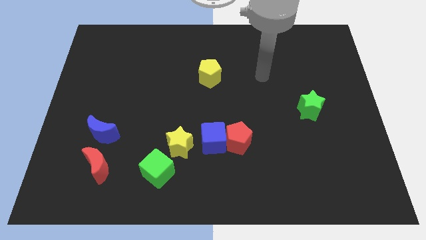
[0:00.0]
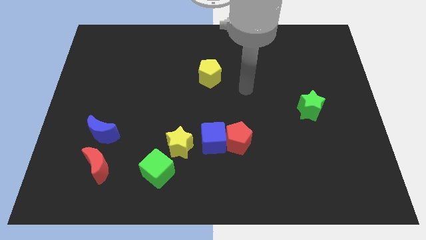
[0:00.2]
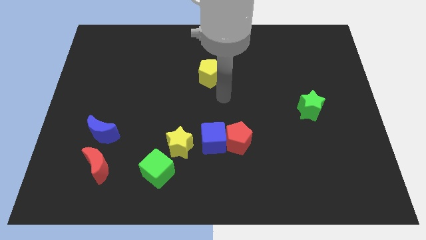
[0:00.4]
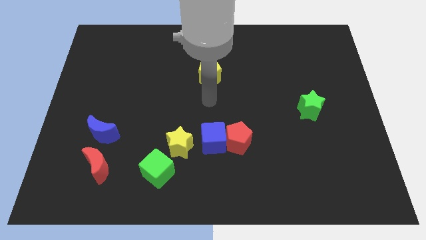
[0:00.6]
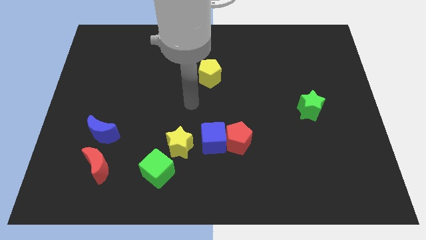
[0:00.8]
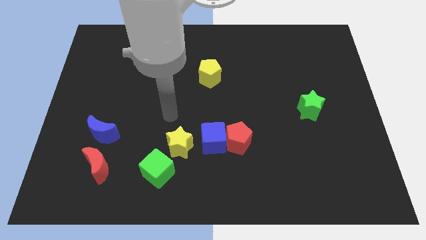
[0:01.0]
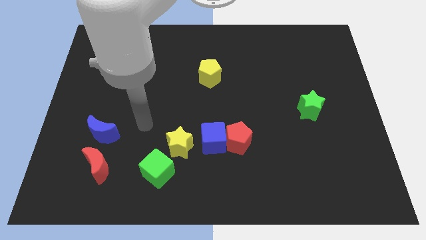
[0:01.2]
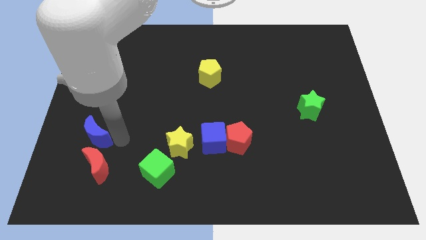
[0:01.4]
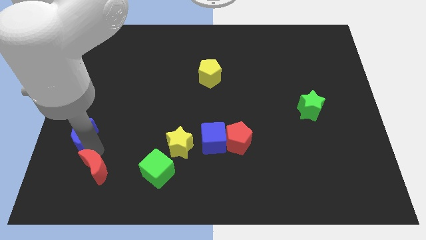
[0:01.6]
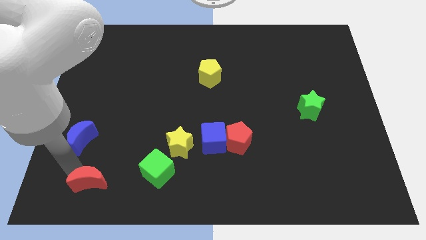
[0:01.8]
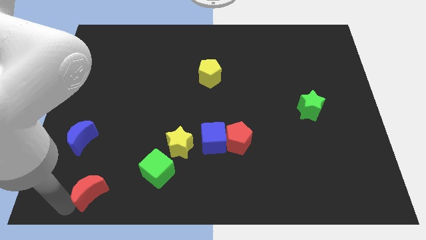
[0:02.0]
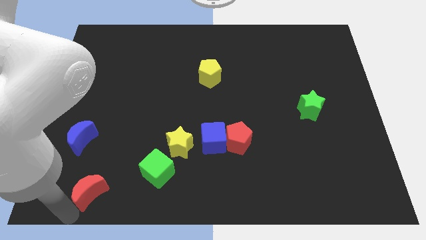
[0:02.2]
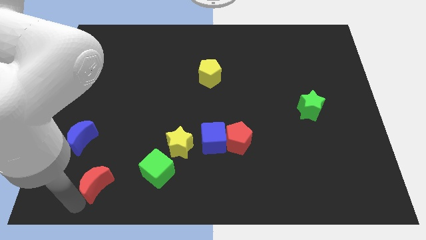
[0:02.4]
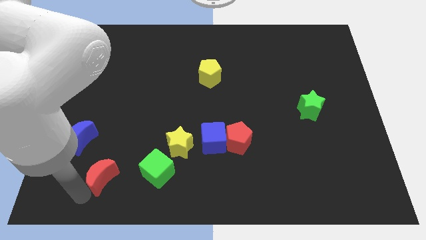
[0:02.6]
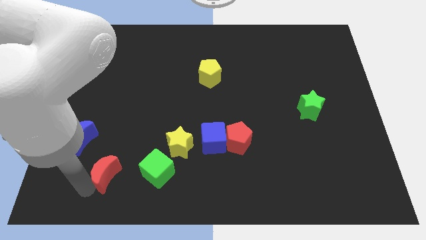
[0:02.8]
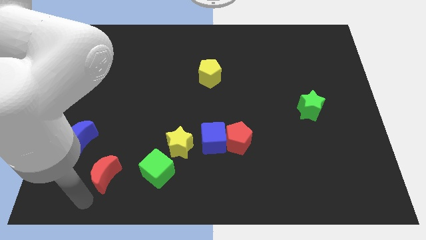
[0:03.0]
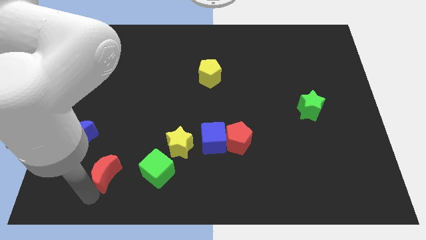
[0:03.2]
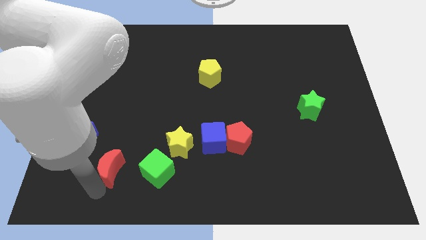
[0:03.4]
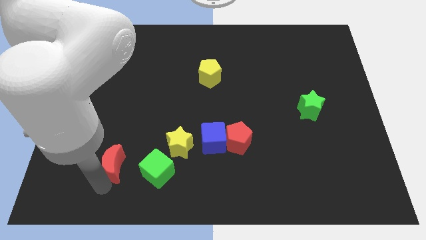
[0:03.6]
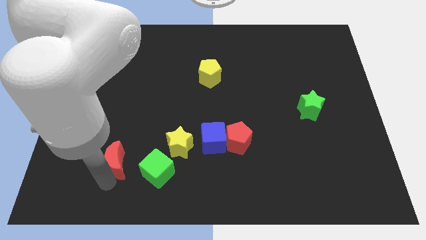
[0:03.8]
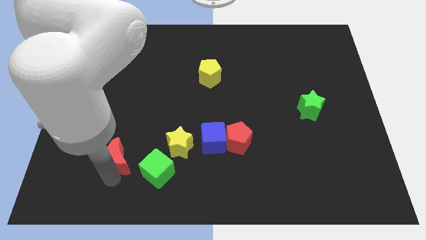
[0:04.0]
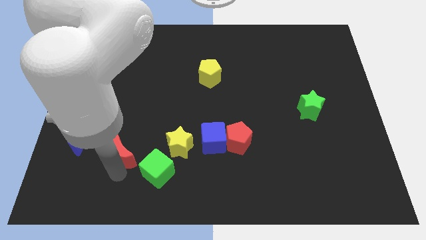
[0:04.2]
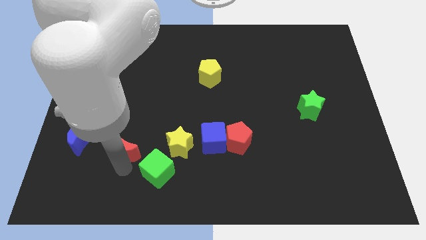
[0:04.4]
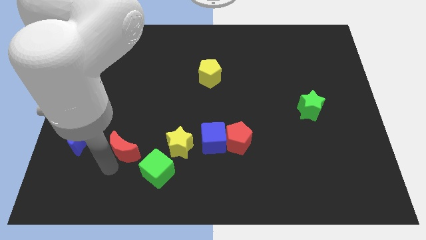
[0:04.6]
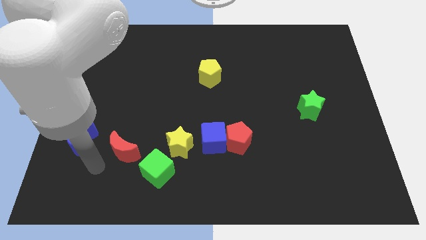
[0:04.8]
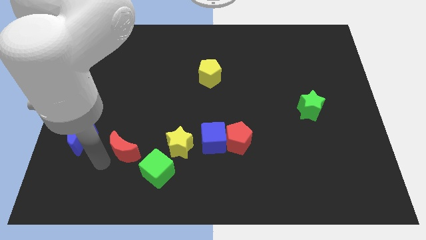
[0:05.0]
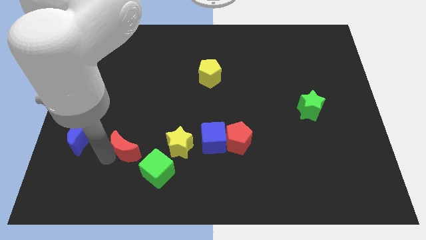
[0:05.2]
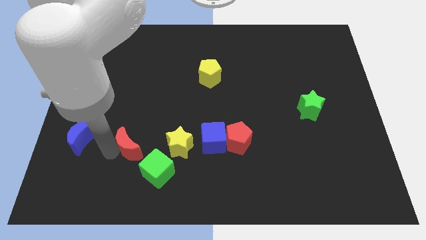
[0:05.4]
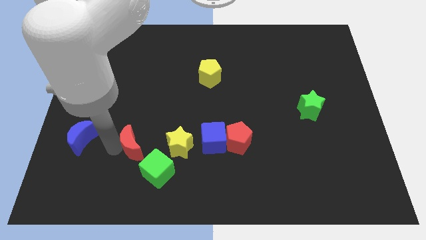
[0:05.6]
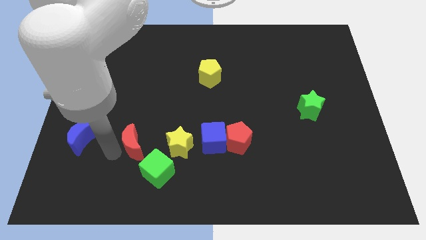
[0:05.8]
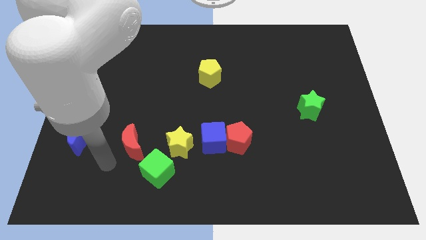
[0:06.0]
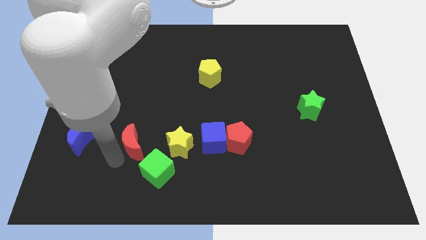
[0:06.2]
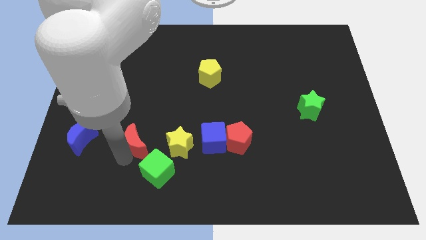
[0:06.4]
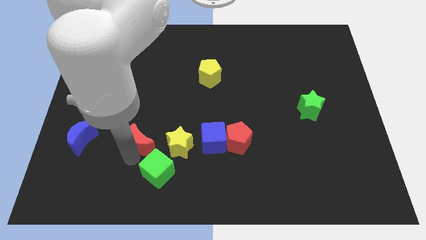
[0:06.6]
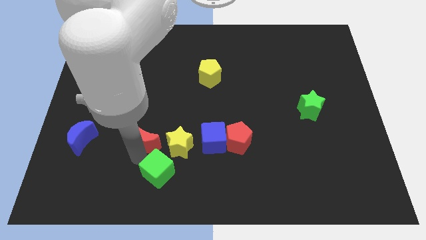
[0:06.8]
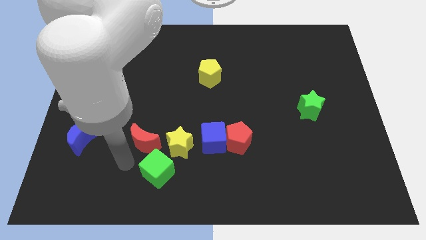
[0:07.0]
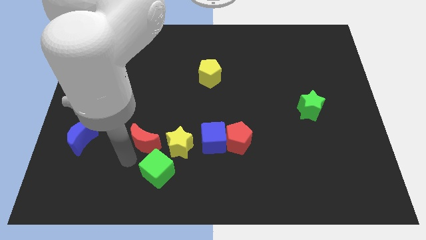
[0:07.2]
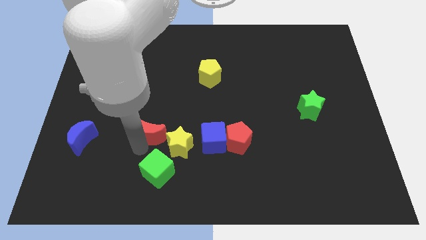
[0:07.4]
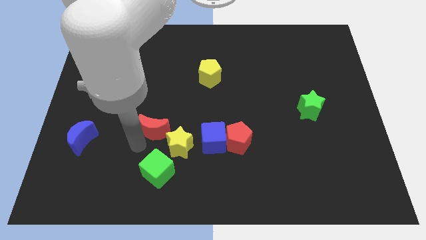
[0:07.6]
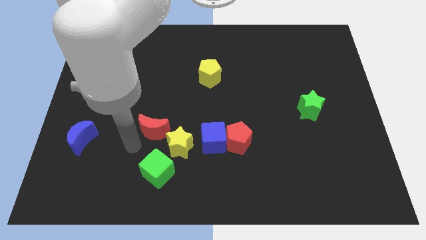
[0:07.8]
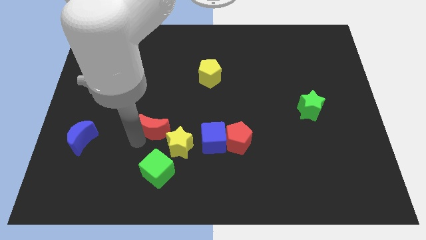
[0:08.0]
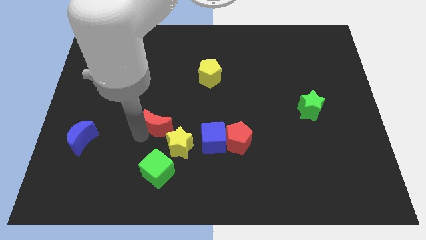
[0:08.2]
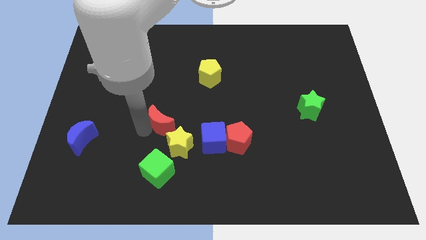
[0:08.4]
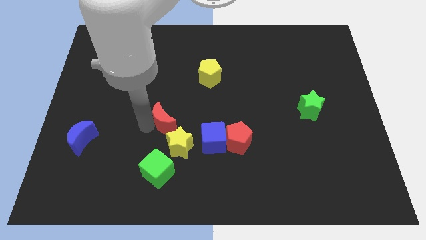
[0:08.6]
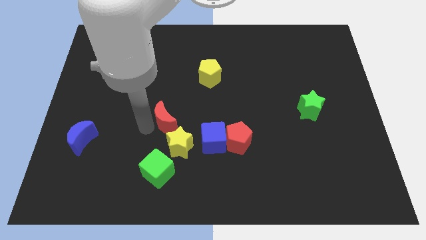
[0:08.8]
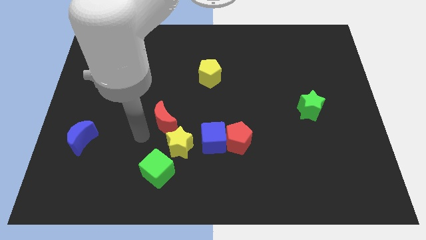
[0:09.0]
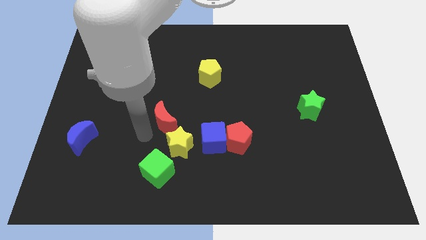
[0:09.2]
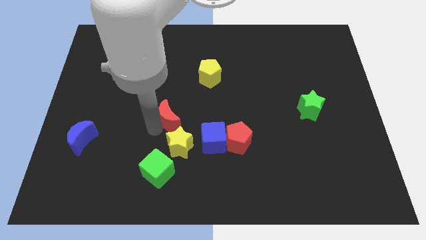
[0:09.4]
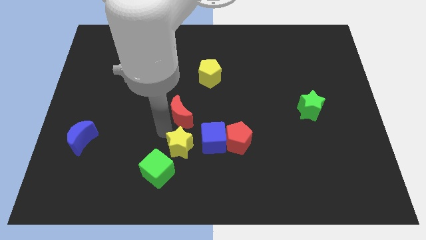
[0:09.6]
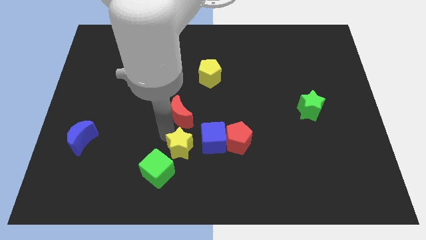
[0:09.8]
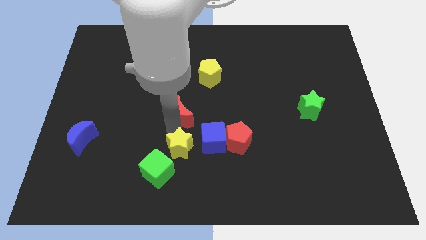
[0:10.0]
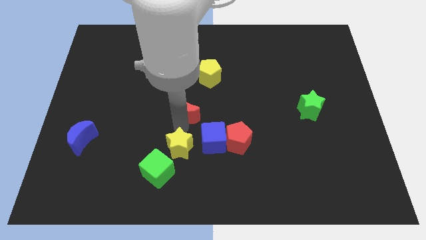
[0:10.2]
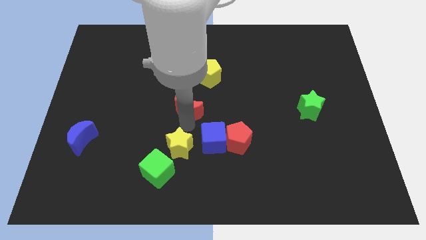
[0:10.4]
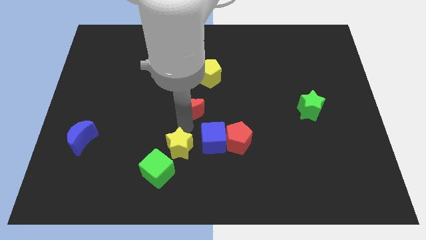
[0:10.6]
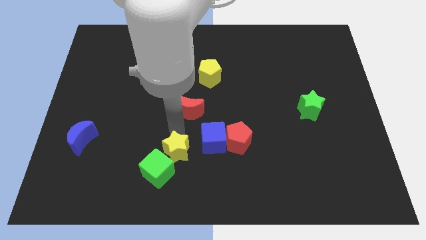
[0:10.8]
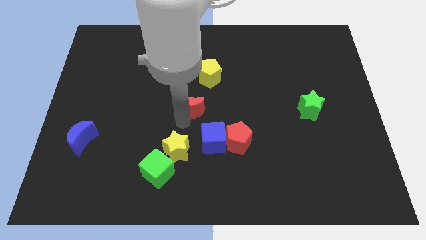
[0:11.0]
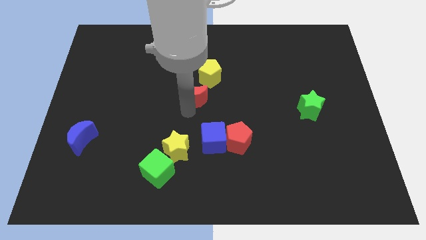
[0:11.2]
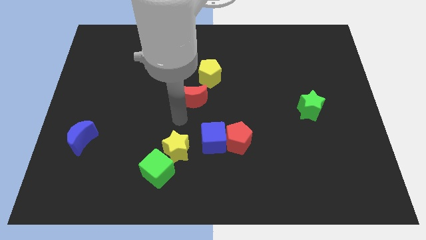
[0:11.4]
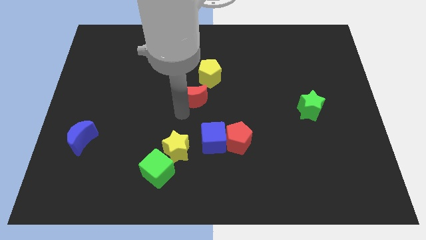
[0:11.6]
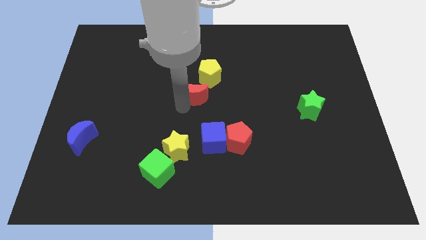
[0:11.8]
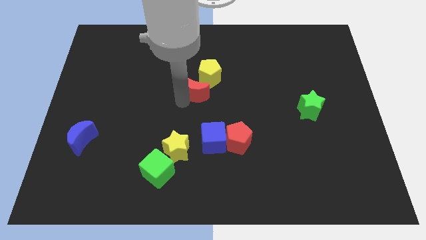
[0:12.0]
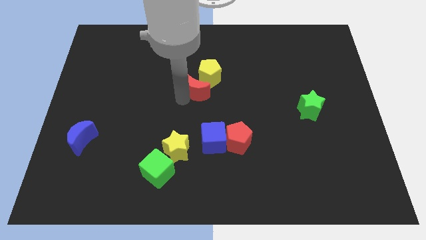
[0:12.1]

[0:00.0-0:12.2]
push the red moon next to the yellow pentagon

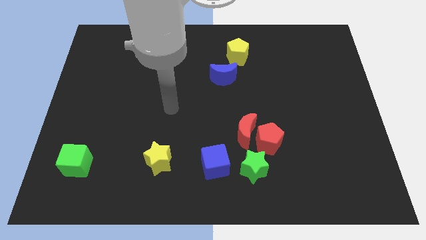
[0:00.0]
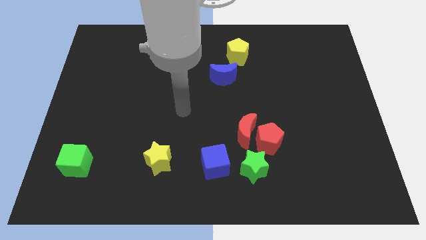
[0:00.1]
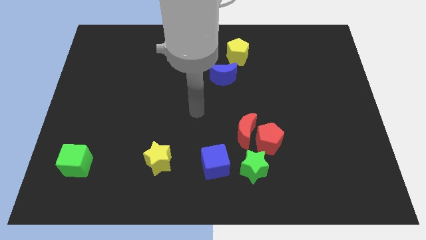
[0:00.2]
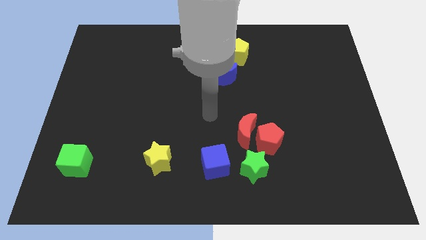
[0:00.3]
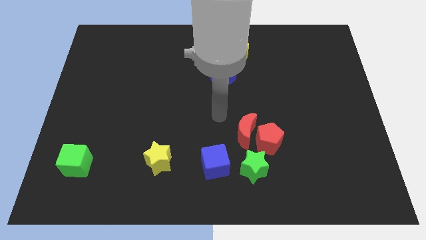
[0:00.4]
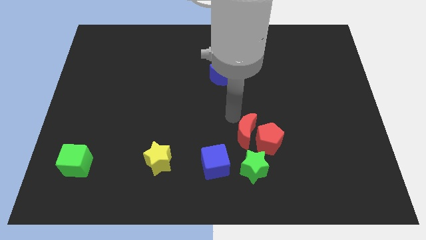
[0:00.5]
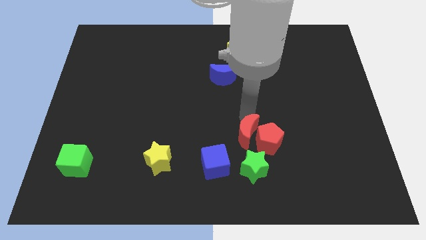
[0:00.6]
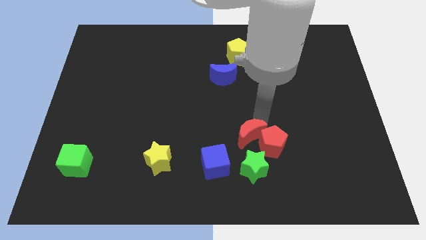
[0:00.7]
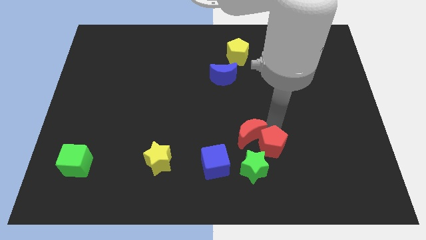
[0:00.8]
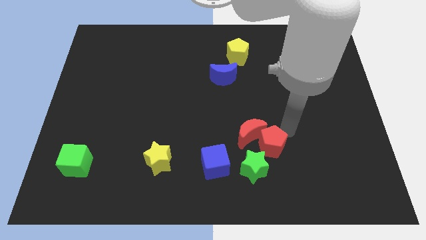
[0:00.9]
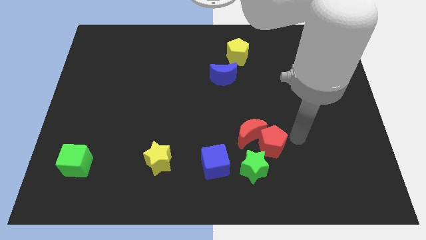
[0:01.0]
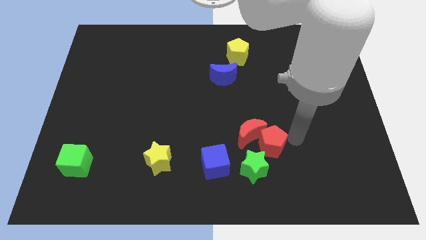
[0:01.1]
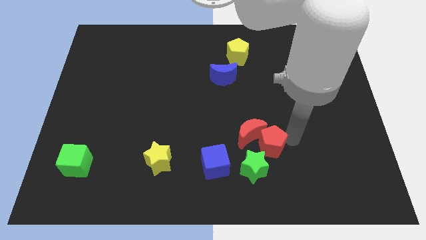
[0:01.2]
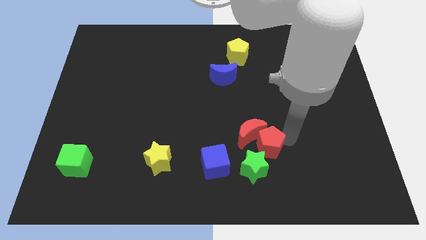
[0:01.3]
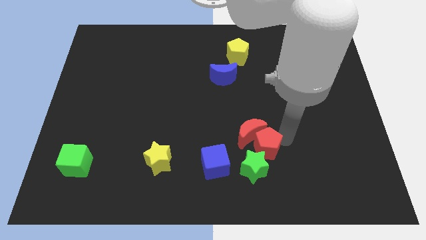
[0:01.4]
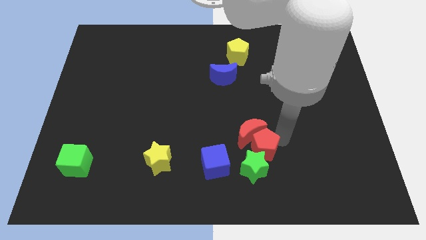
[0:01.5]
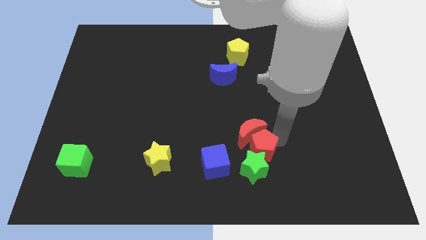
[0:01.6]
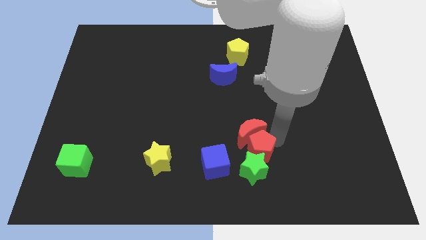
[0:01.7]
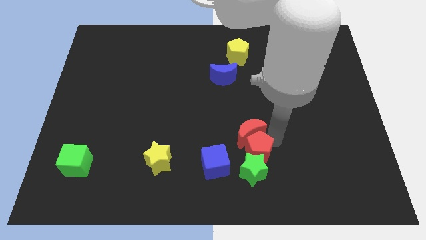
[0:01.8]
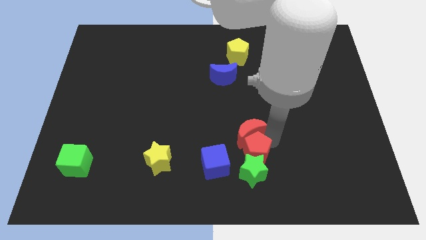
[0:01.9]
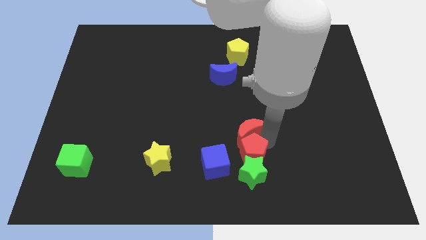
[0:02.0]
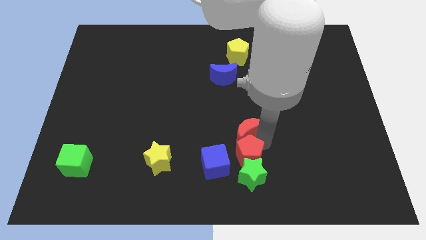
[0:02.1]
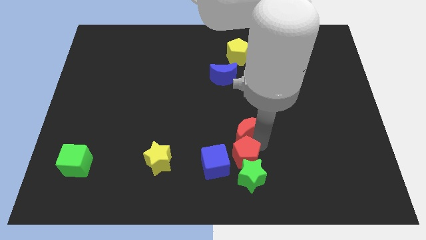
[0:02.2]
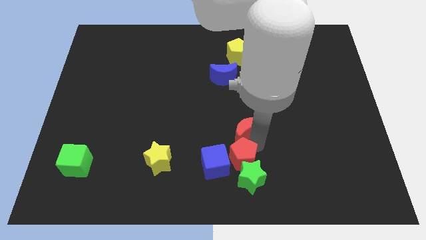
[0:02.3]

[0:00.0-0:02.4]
put the red pentagon close to the blue cube
